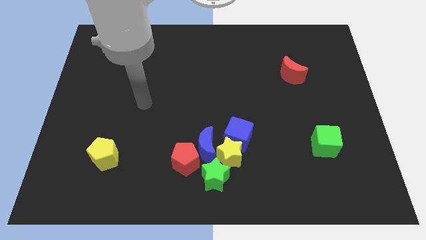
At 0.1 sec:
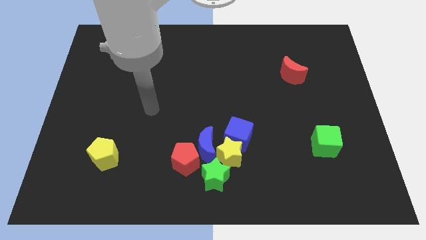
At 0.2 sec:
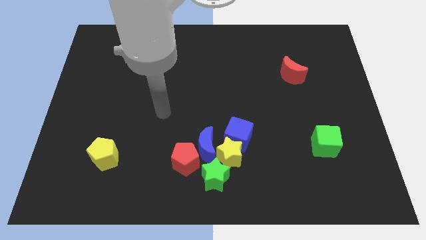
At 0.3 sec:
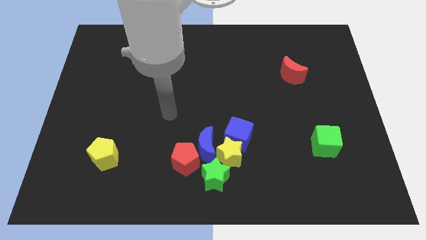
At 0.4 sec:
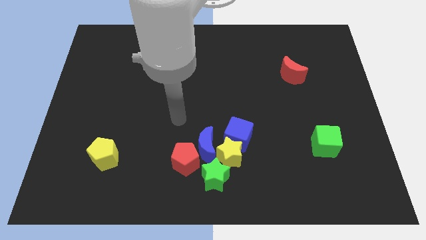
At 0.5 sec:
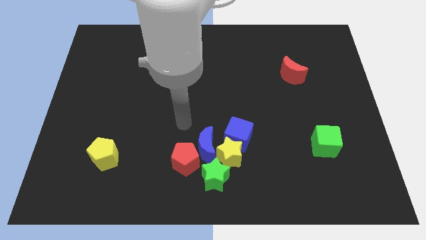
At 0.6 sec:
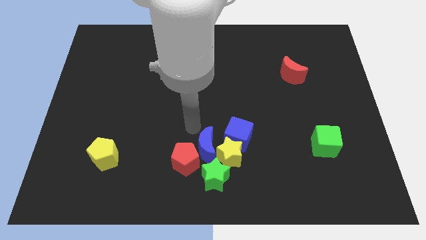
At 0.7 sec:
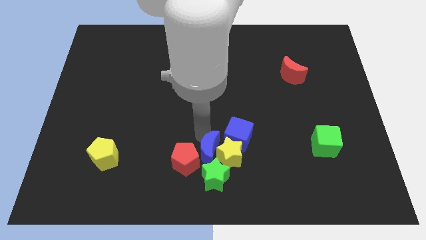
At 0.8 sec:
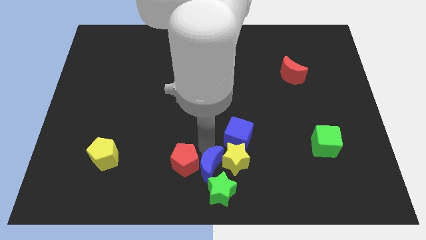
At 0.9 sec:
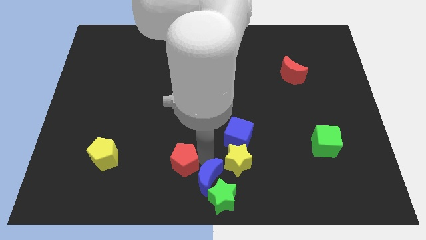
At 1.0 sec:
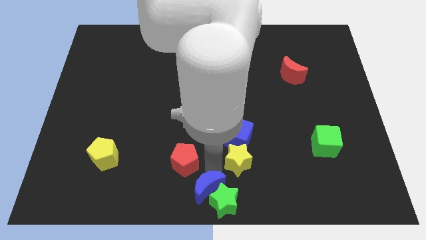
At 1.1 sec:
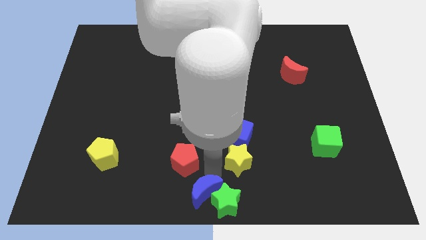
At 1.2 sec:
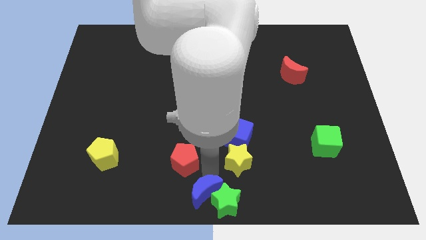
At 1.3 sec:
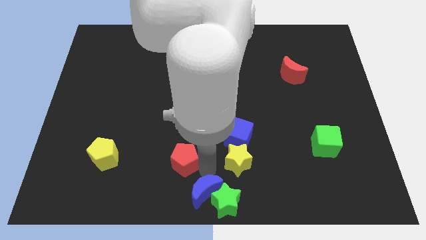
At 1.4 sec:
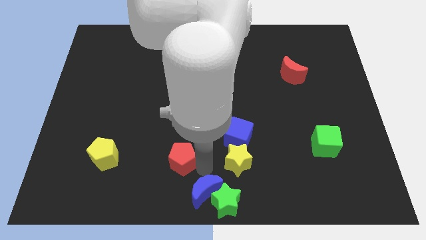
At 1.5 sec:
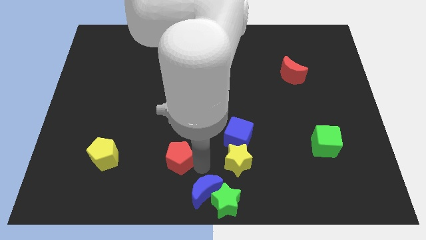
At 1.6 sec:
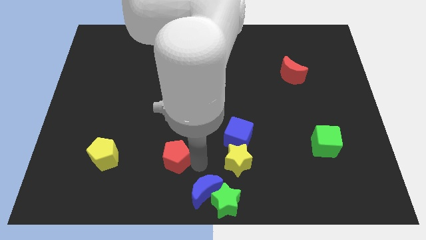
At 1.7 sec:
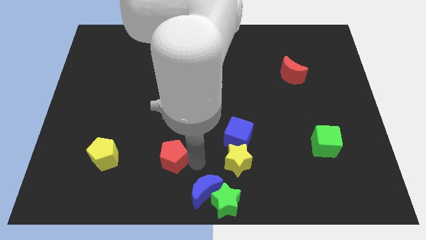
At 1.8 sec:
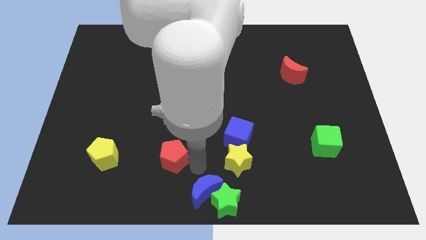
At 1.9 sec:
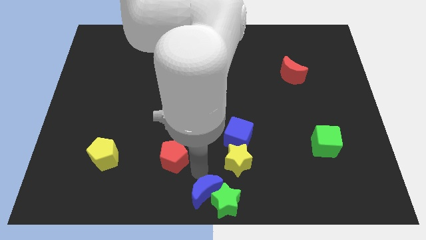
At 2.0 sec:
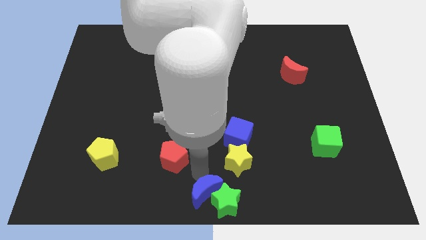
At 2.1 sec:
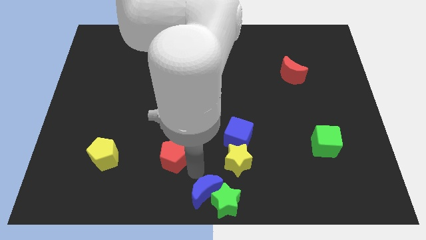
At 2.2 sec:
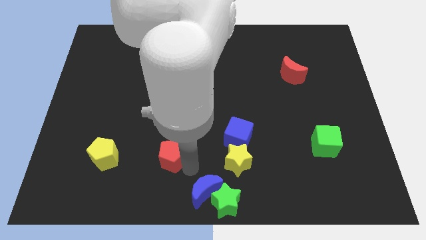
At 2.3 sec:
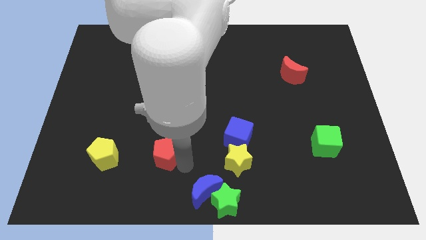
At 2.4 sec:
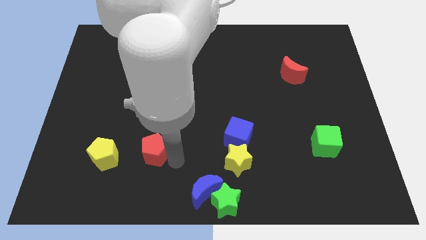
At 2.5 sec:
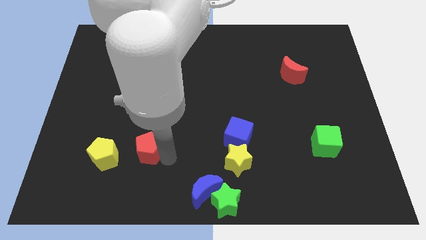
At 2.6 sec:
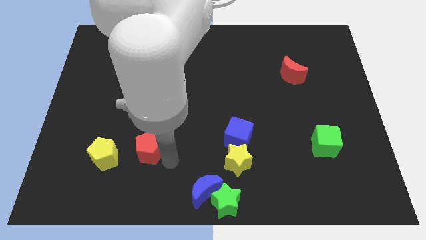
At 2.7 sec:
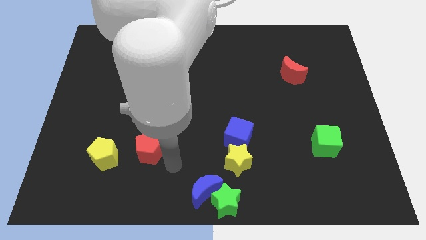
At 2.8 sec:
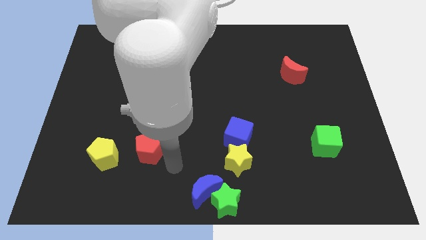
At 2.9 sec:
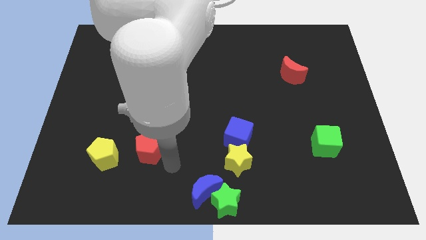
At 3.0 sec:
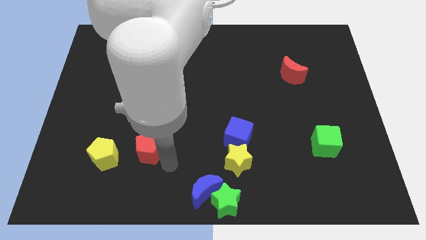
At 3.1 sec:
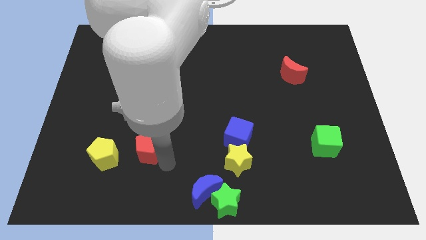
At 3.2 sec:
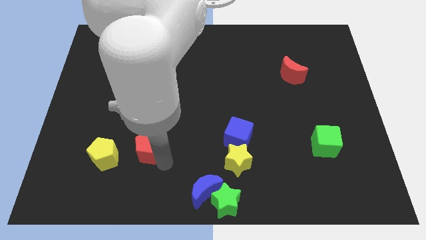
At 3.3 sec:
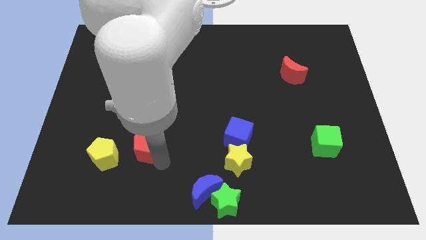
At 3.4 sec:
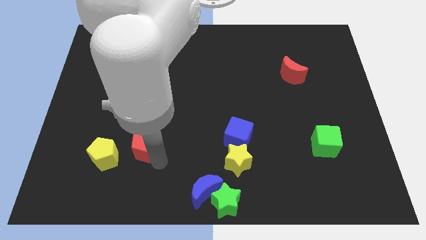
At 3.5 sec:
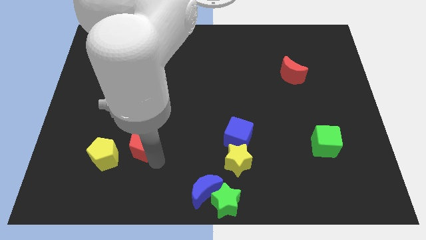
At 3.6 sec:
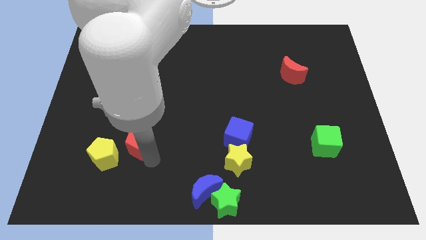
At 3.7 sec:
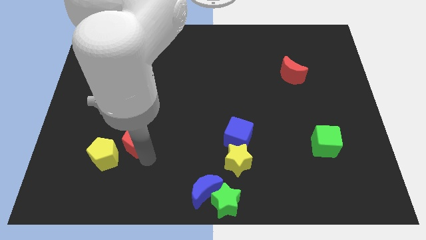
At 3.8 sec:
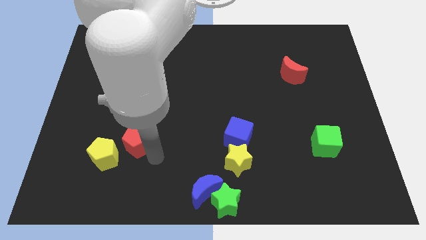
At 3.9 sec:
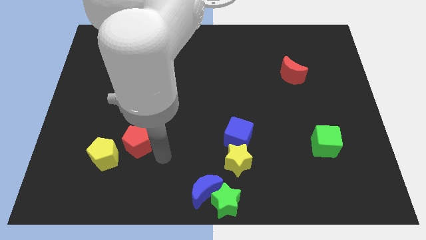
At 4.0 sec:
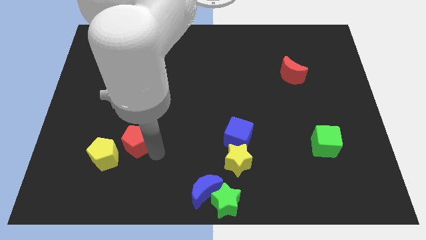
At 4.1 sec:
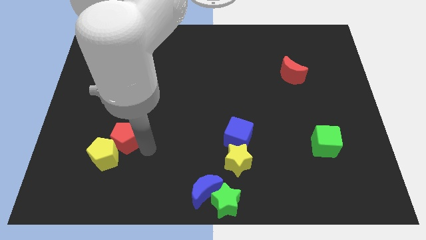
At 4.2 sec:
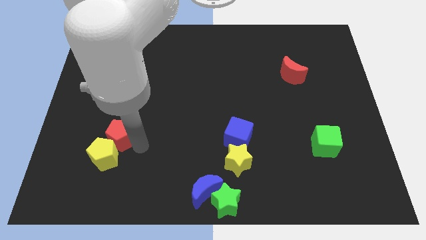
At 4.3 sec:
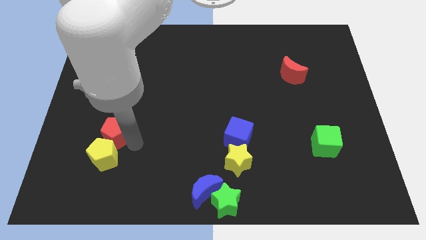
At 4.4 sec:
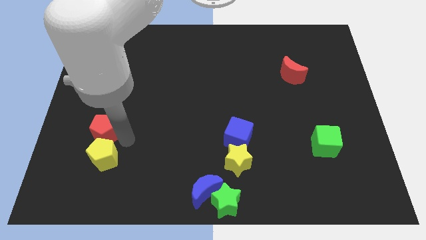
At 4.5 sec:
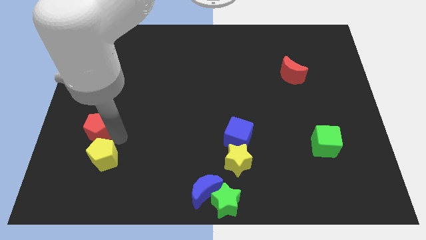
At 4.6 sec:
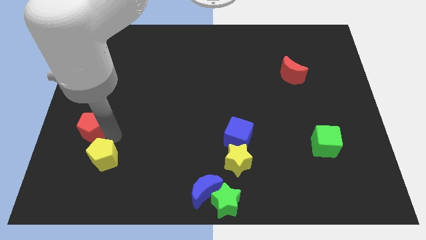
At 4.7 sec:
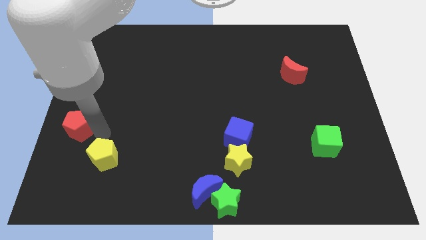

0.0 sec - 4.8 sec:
move the red pentagon to the left side of the board

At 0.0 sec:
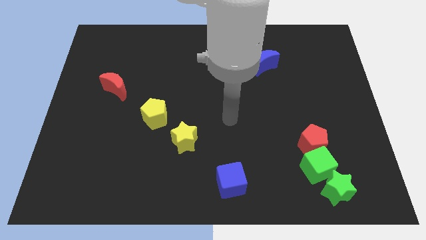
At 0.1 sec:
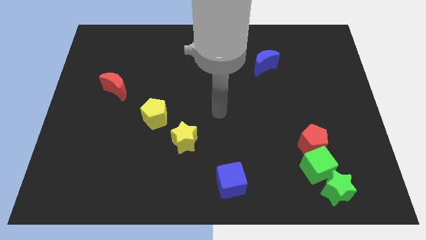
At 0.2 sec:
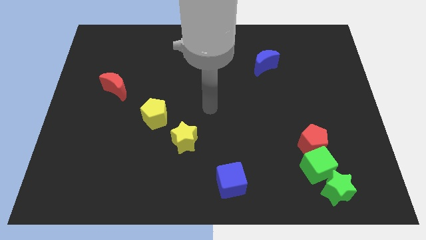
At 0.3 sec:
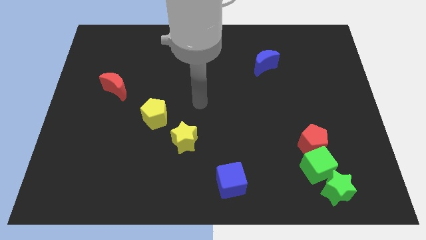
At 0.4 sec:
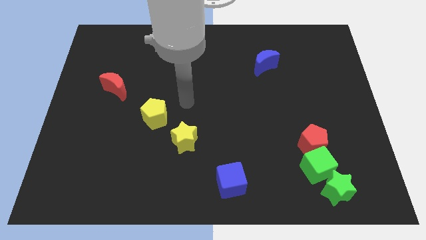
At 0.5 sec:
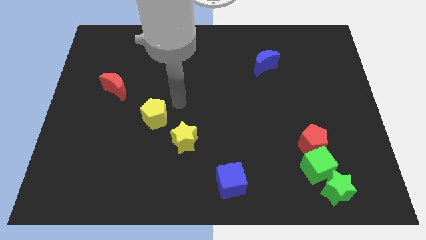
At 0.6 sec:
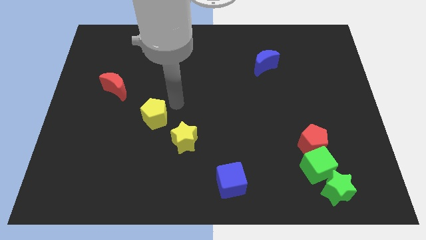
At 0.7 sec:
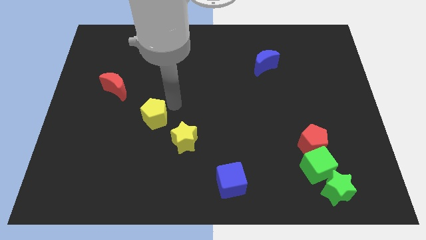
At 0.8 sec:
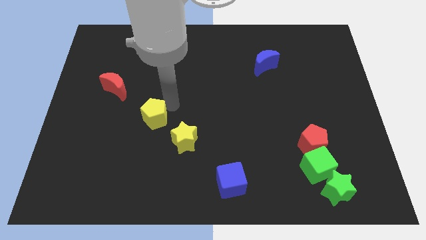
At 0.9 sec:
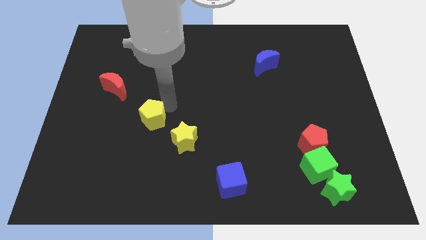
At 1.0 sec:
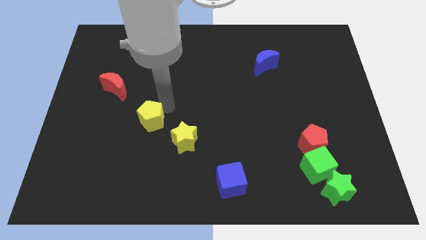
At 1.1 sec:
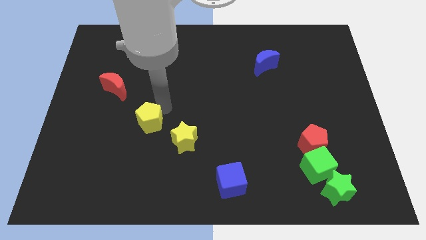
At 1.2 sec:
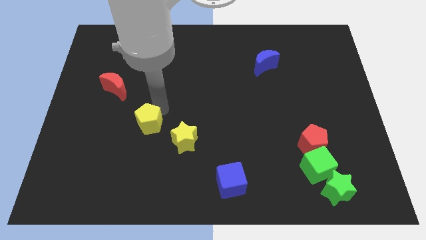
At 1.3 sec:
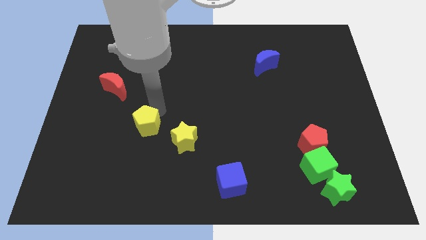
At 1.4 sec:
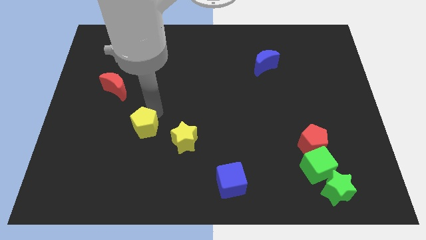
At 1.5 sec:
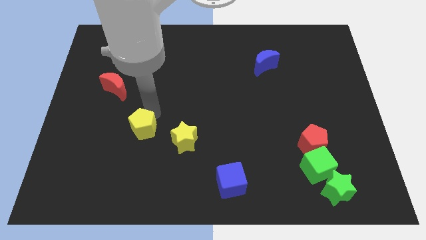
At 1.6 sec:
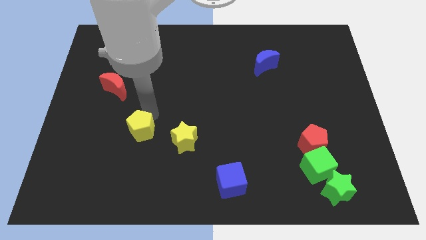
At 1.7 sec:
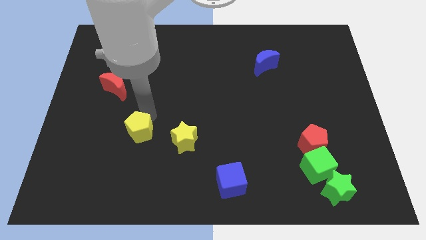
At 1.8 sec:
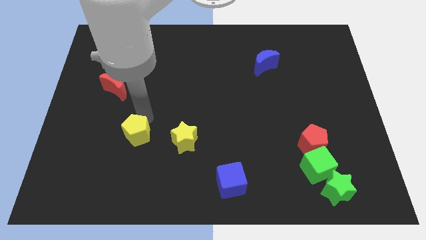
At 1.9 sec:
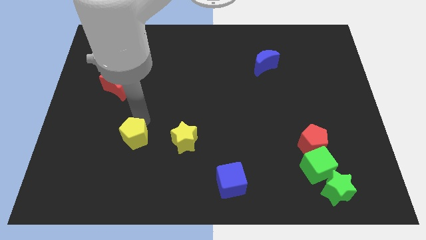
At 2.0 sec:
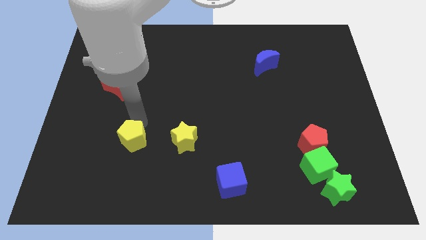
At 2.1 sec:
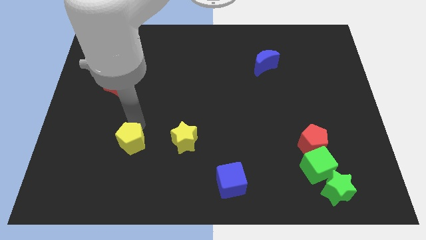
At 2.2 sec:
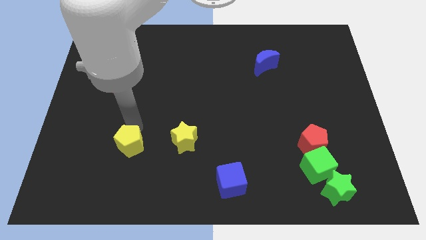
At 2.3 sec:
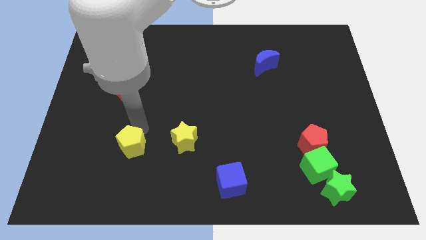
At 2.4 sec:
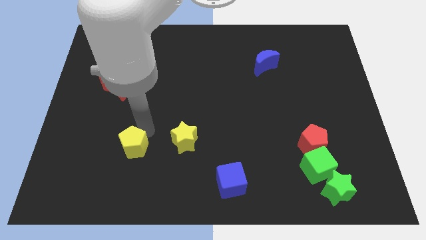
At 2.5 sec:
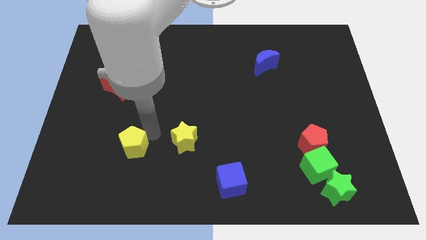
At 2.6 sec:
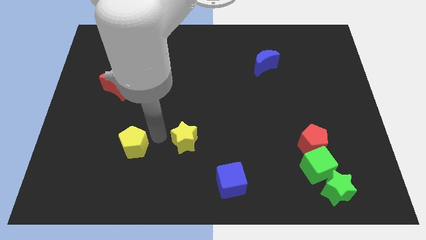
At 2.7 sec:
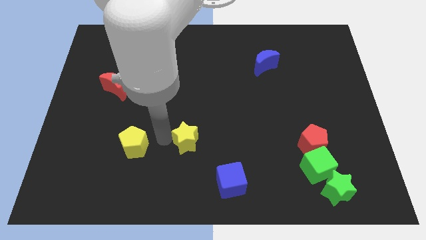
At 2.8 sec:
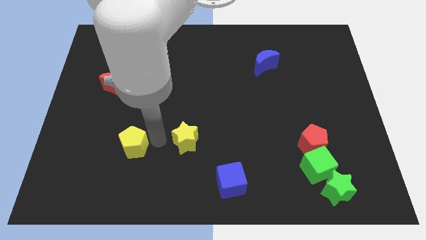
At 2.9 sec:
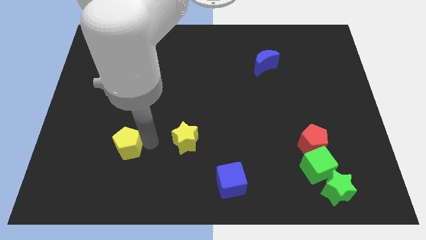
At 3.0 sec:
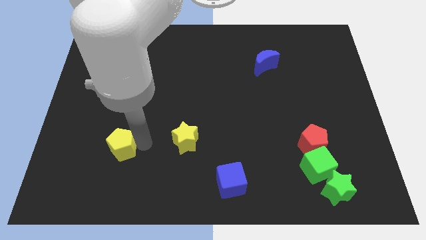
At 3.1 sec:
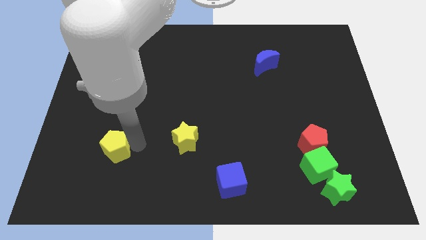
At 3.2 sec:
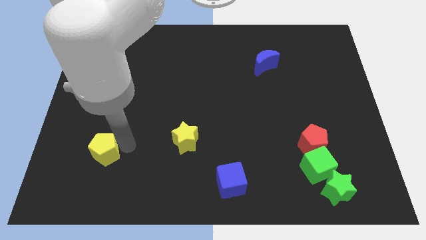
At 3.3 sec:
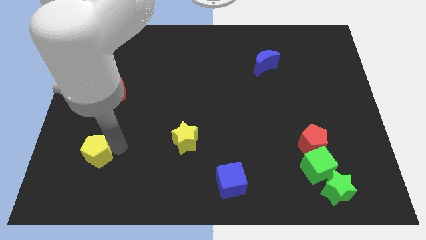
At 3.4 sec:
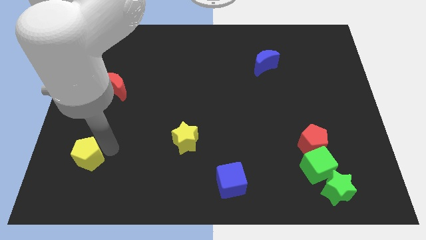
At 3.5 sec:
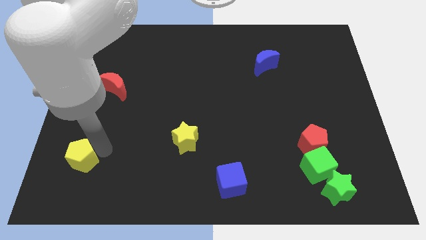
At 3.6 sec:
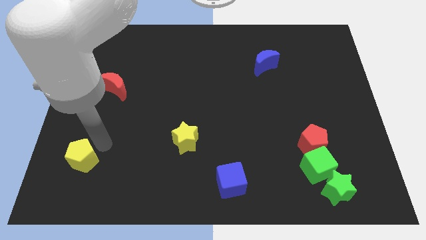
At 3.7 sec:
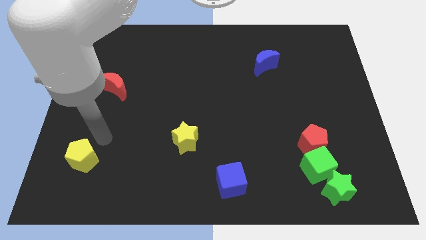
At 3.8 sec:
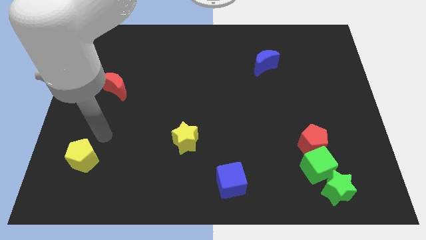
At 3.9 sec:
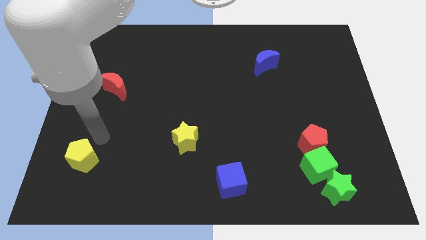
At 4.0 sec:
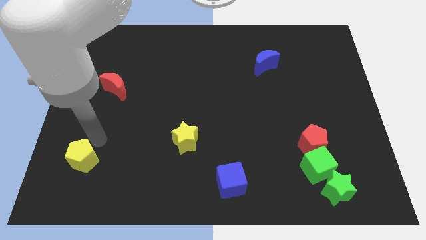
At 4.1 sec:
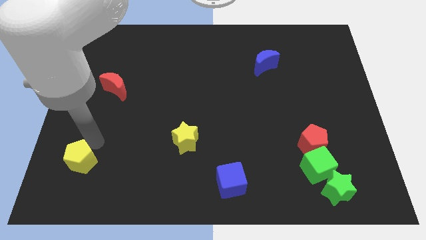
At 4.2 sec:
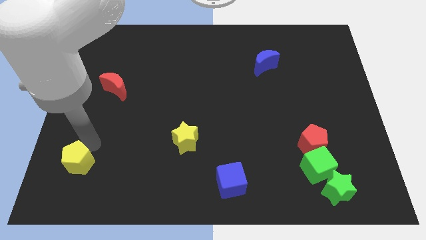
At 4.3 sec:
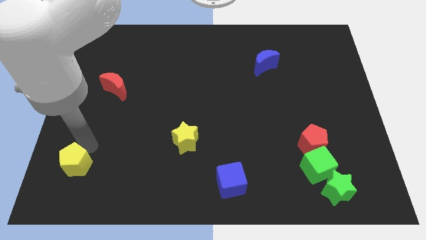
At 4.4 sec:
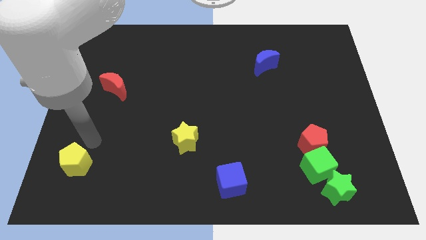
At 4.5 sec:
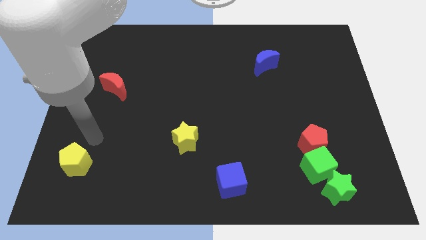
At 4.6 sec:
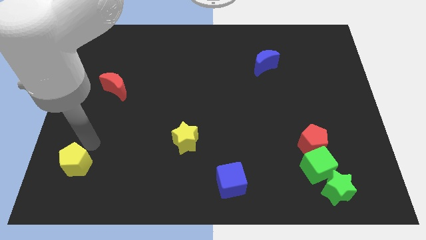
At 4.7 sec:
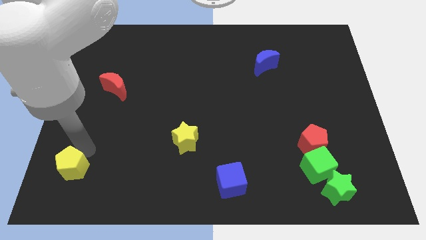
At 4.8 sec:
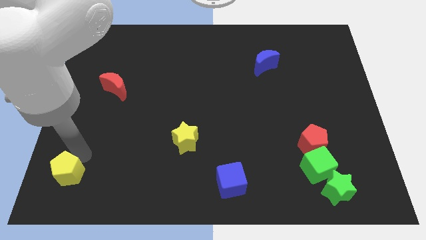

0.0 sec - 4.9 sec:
put the yellow pentagon to the lower left corner
